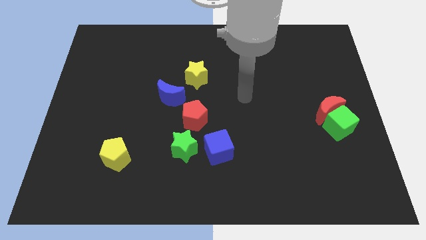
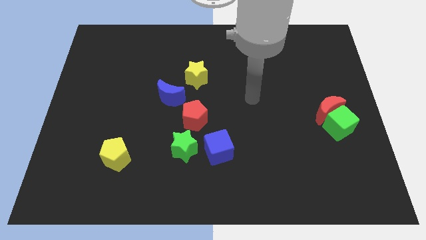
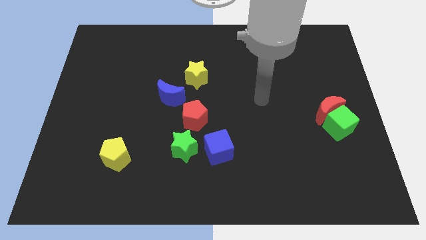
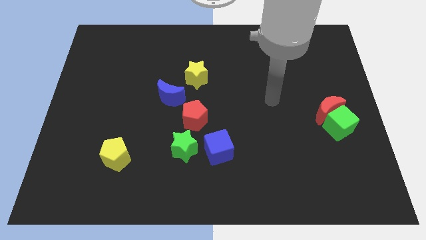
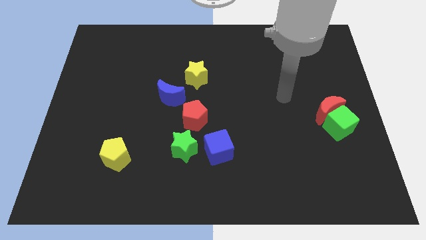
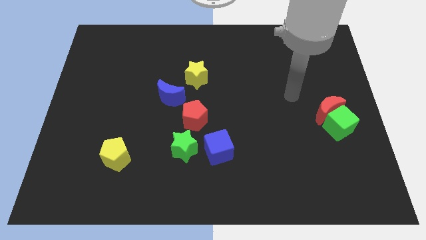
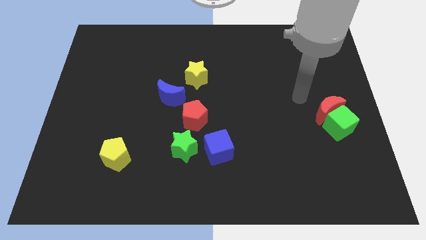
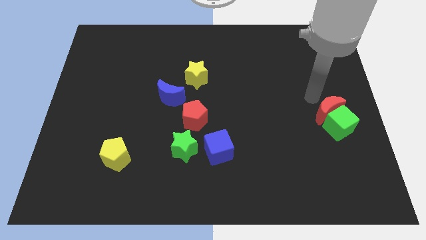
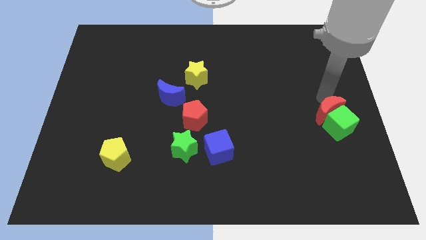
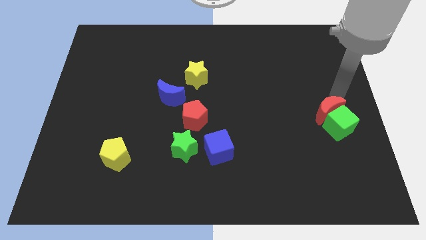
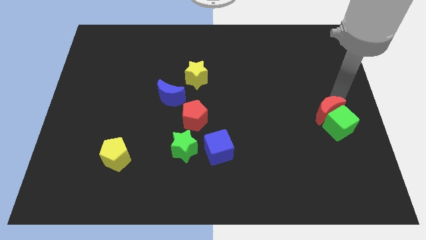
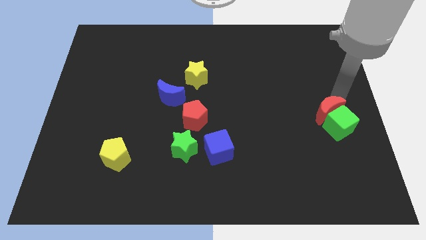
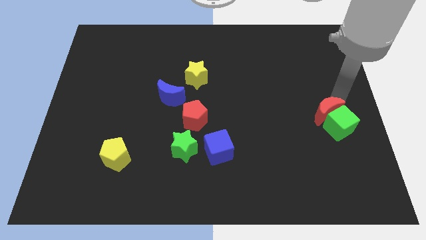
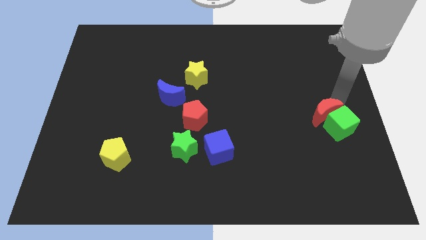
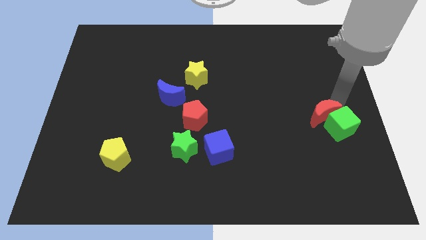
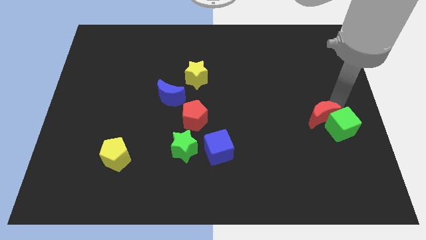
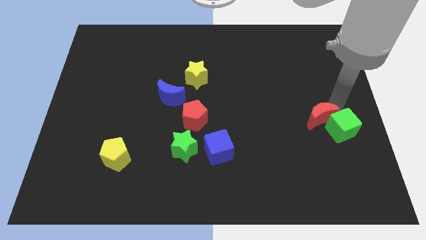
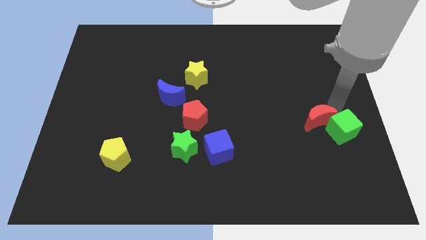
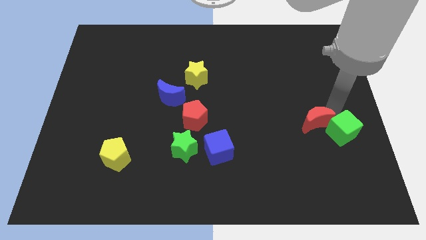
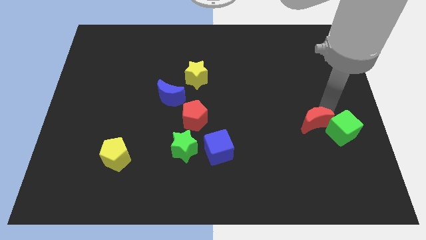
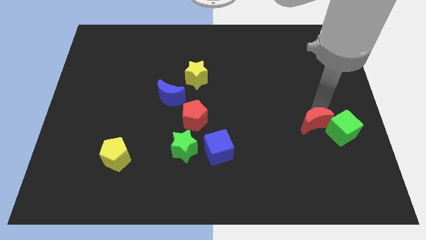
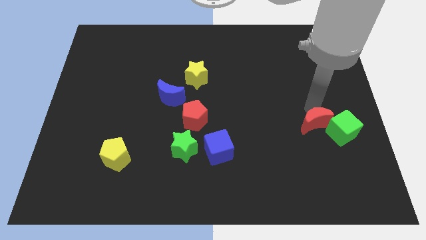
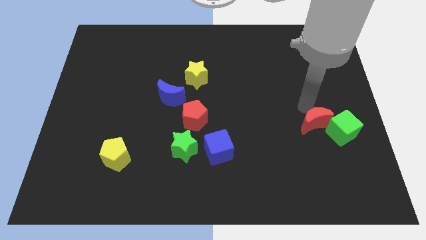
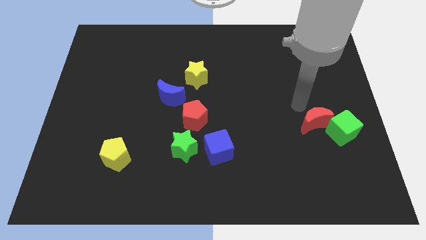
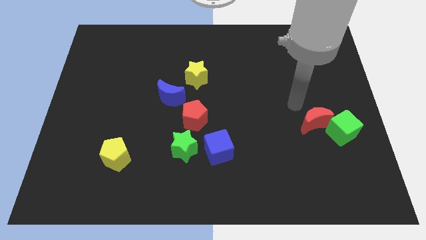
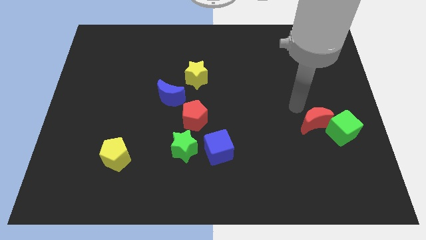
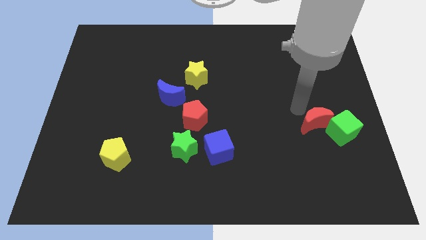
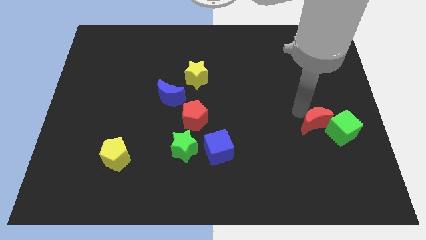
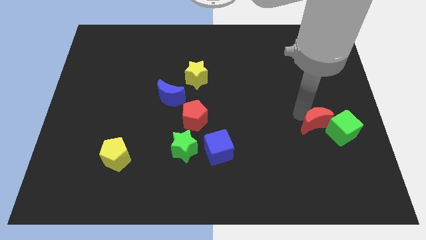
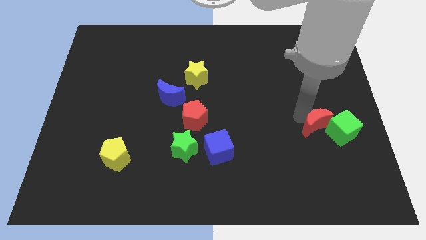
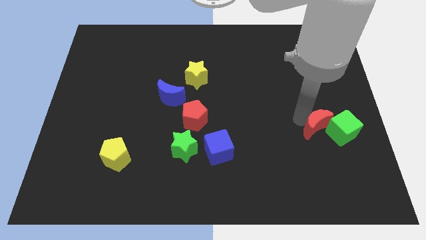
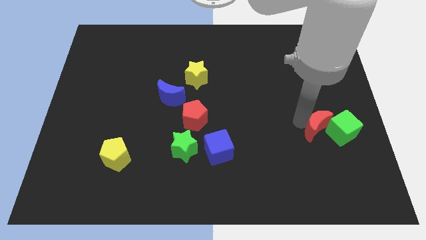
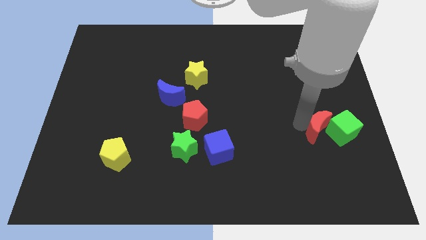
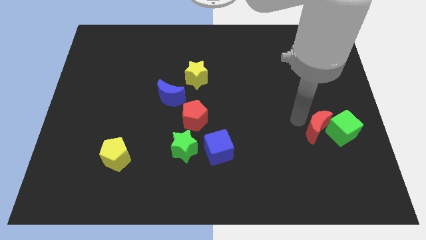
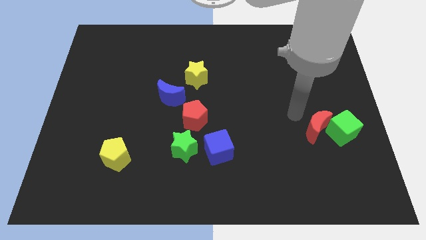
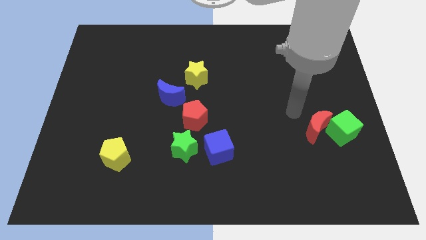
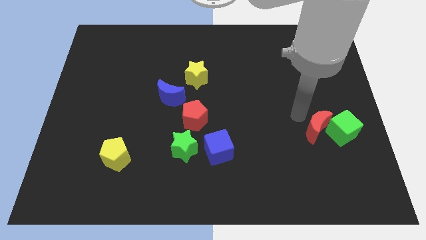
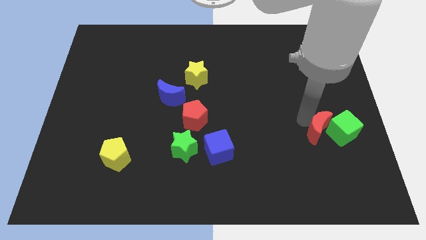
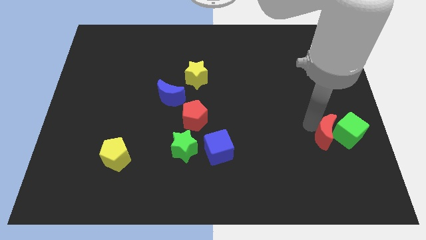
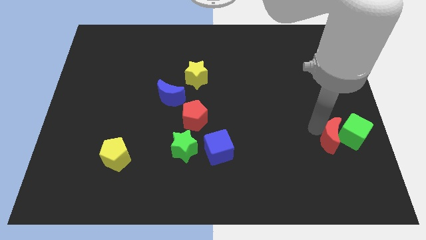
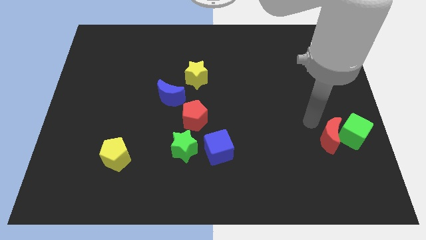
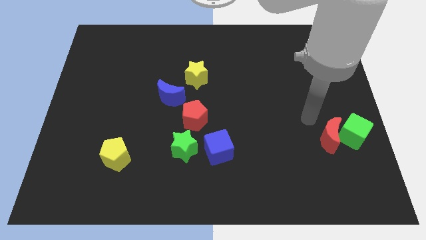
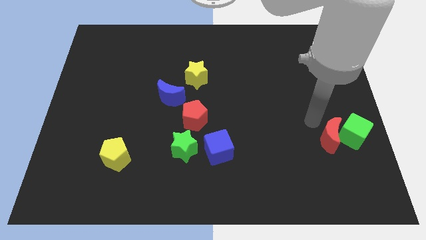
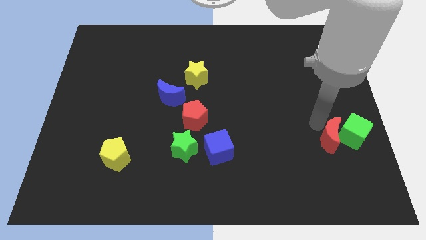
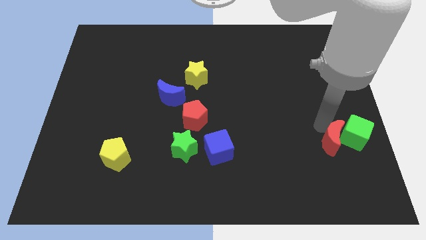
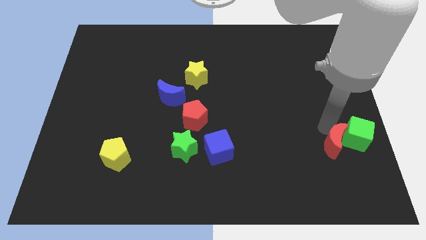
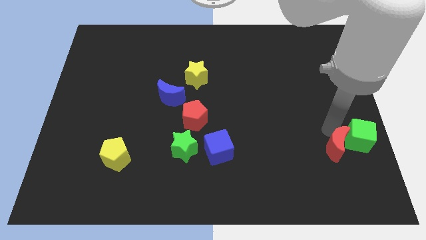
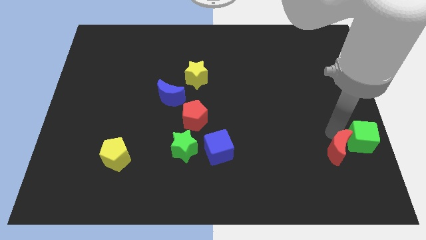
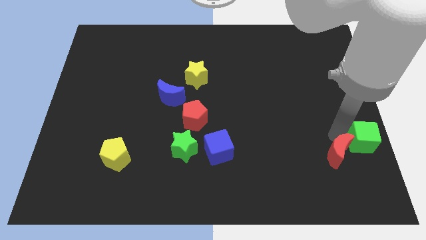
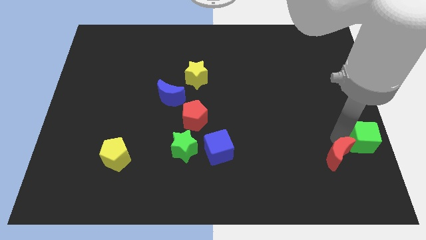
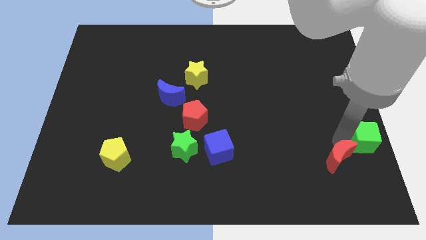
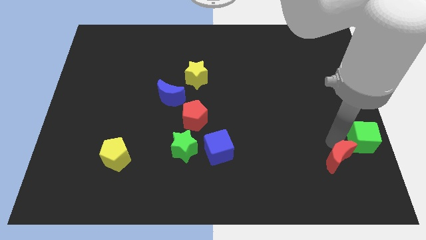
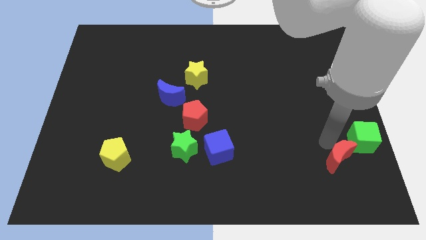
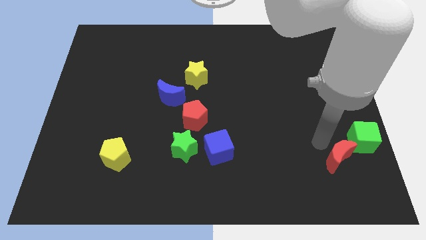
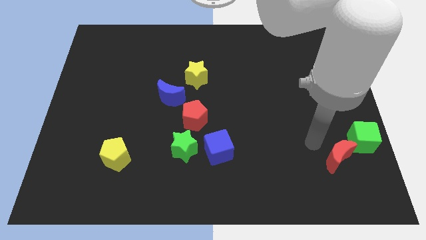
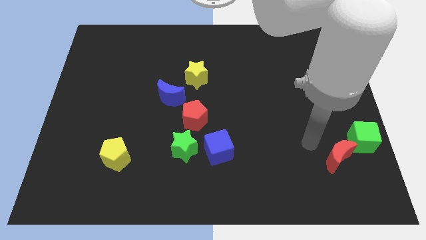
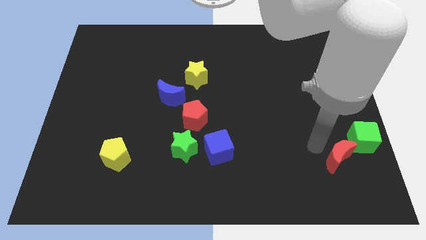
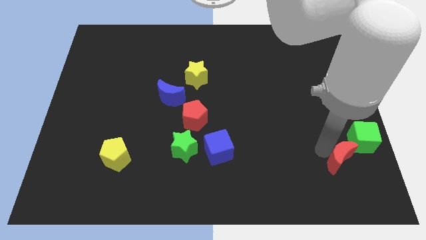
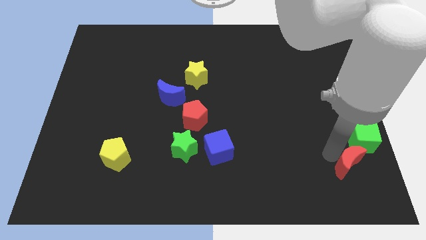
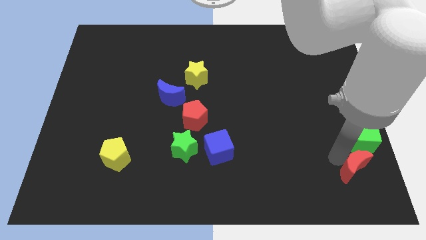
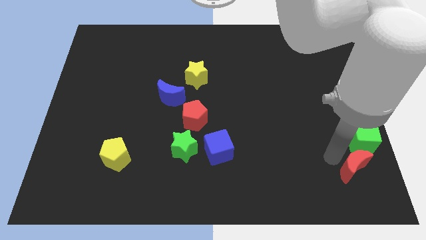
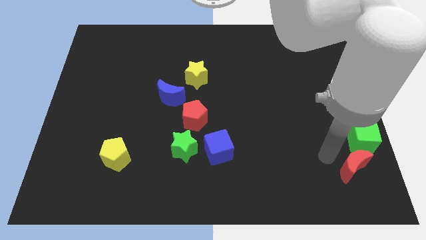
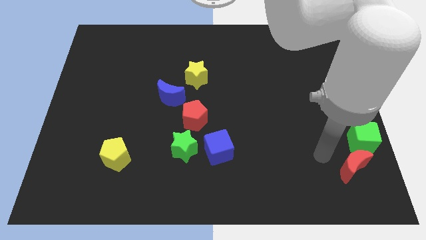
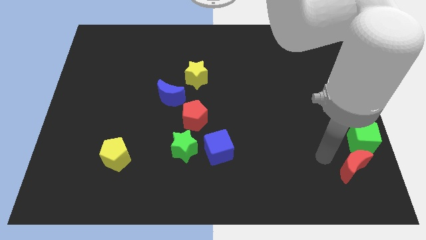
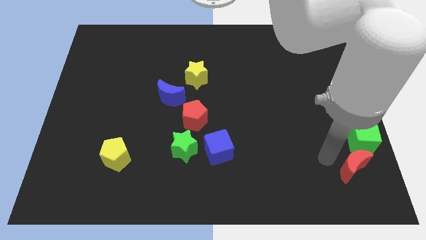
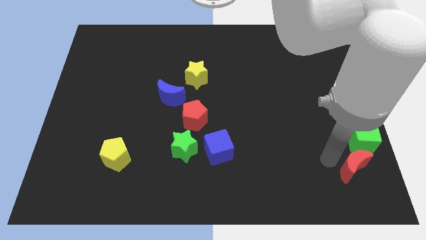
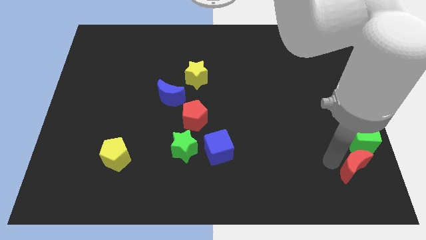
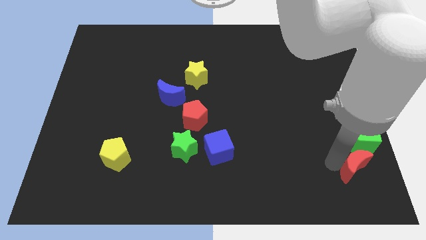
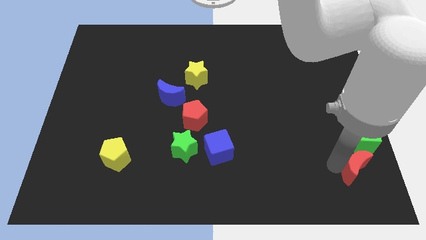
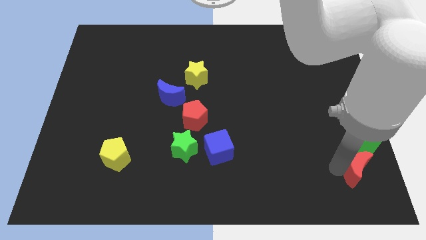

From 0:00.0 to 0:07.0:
slide the red moon to the bottom right corner
